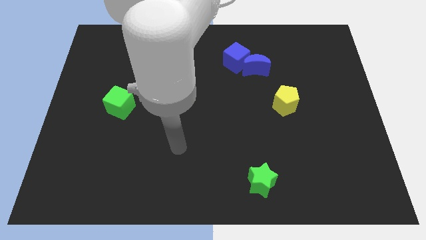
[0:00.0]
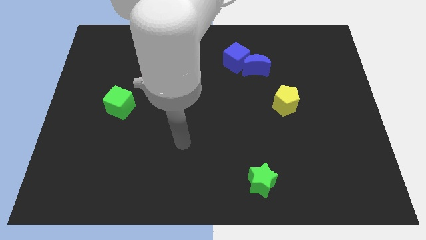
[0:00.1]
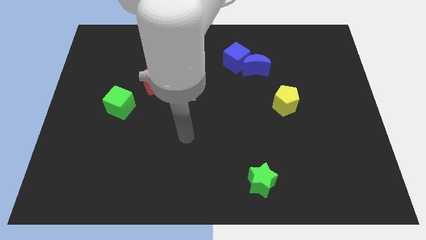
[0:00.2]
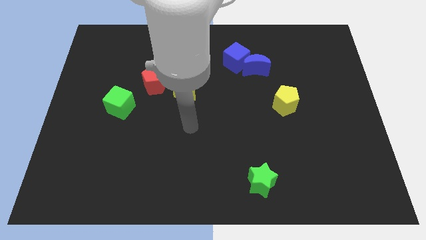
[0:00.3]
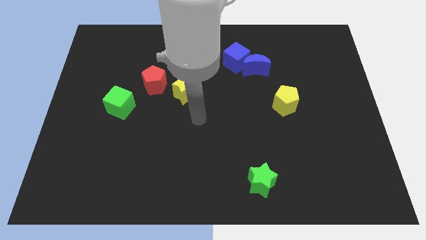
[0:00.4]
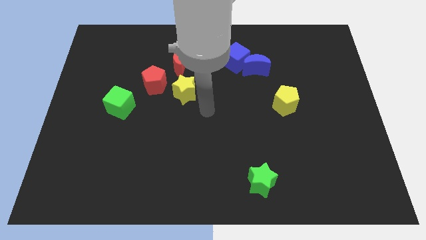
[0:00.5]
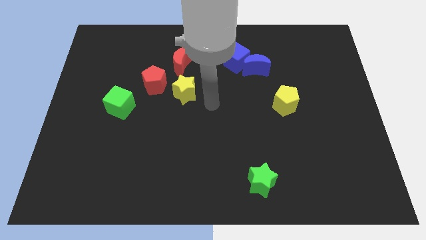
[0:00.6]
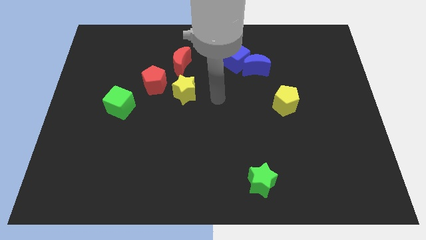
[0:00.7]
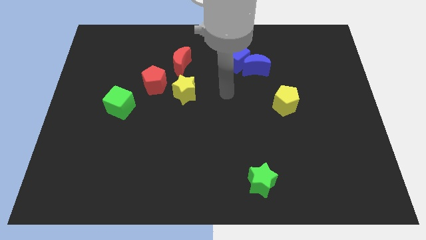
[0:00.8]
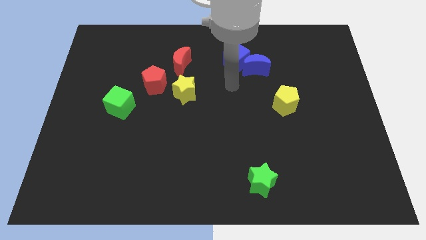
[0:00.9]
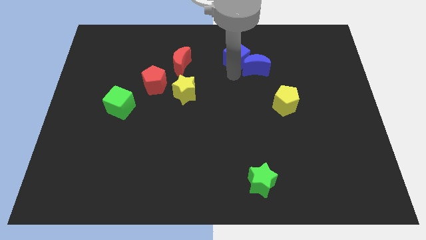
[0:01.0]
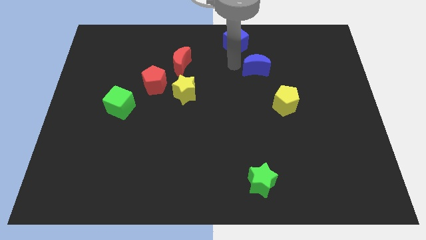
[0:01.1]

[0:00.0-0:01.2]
pull the blue moon apart from the blue cube

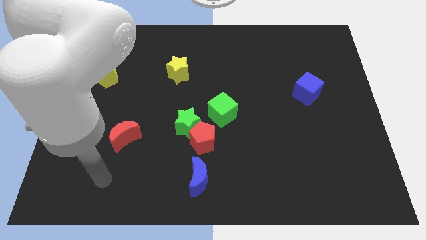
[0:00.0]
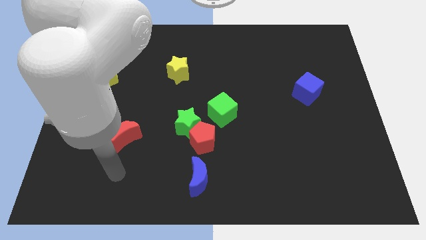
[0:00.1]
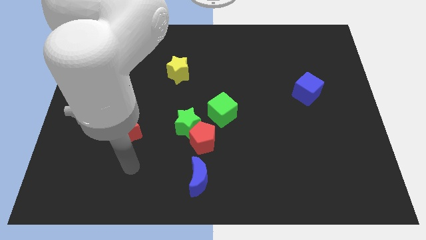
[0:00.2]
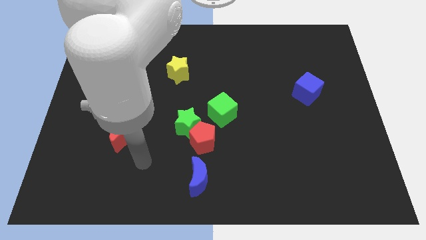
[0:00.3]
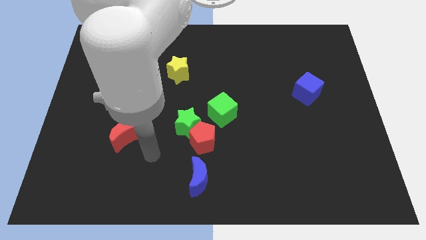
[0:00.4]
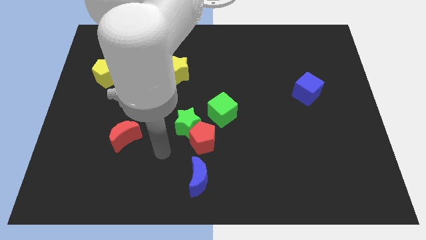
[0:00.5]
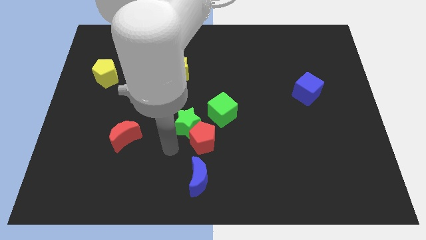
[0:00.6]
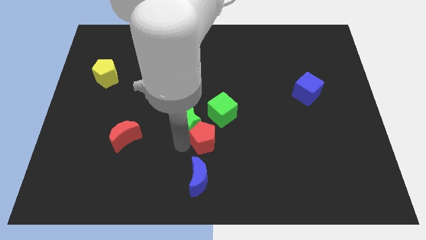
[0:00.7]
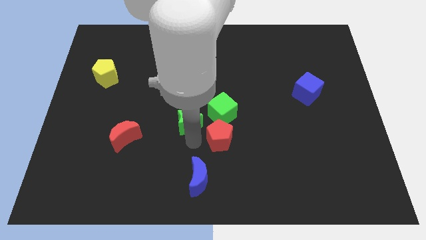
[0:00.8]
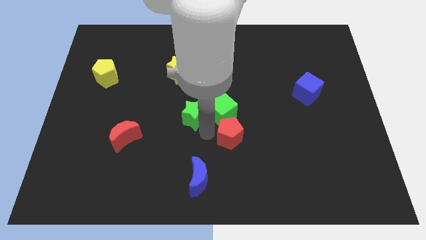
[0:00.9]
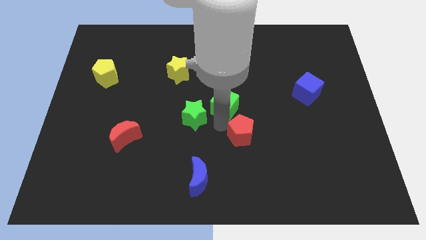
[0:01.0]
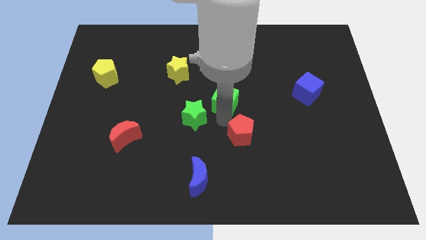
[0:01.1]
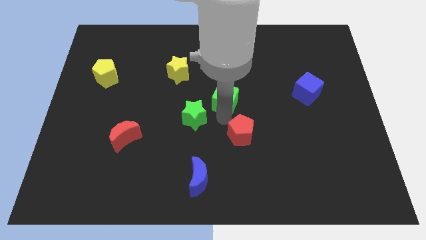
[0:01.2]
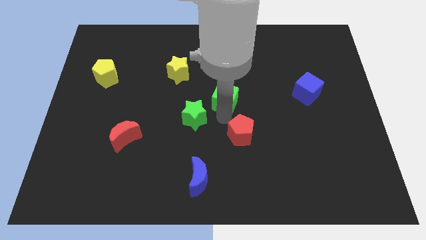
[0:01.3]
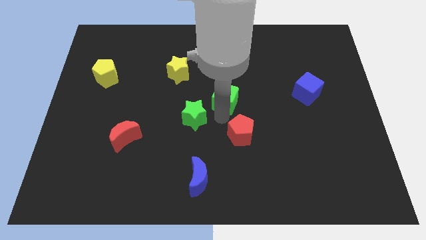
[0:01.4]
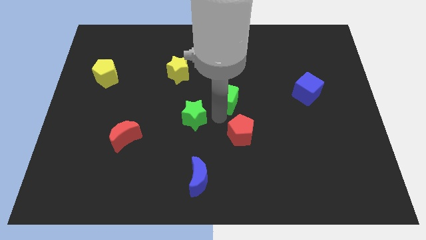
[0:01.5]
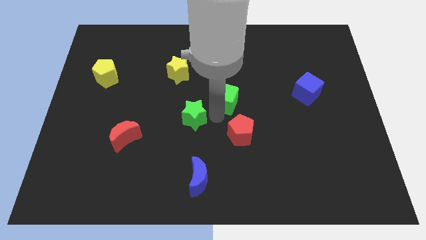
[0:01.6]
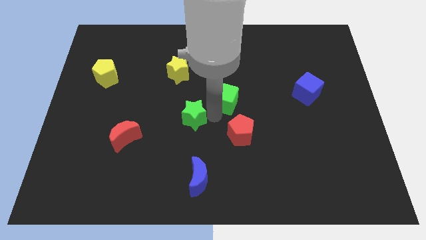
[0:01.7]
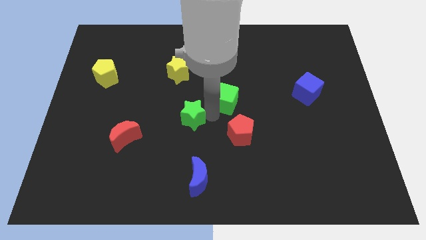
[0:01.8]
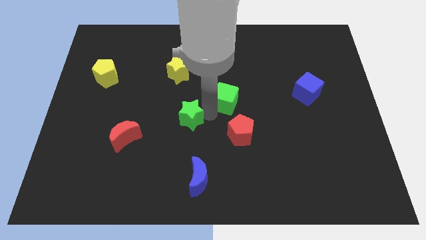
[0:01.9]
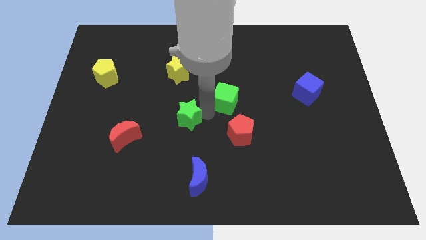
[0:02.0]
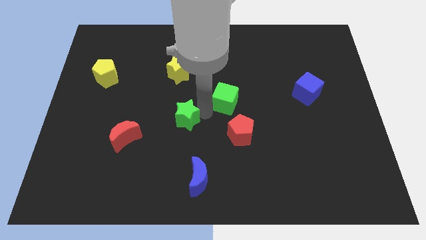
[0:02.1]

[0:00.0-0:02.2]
pull the green star apart from the red pentagon and green cube

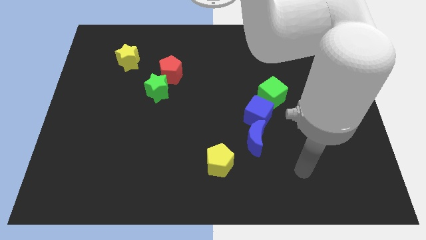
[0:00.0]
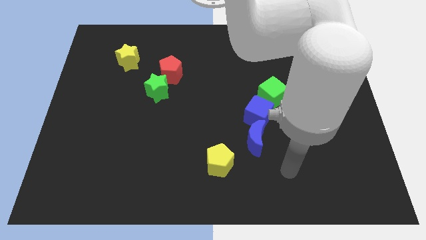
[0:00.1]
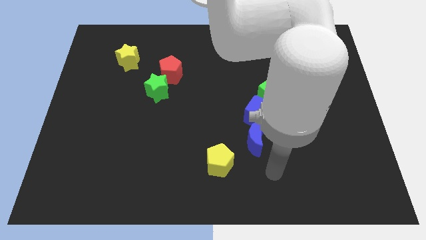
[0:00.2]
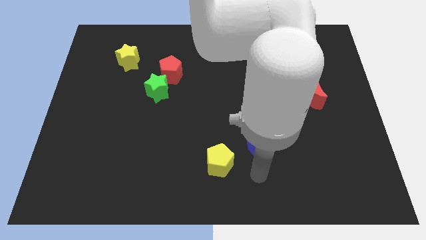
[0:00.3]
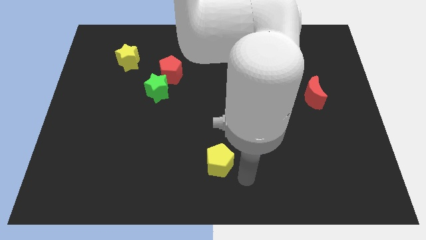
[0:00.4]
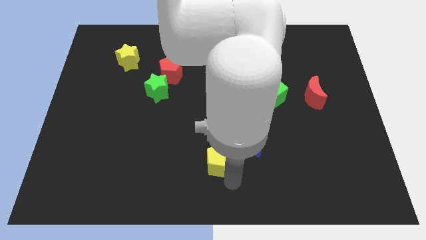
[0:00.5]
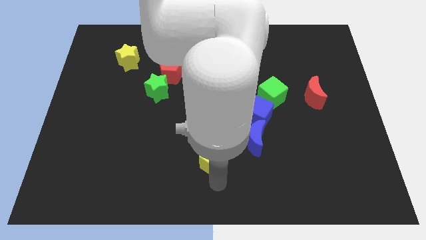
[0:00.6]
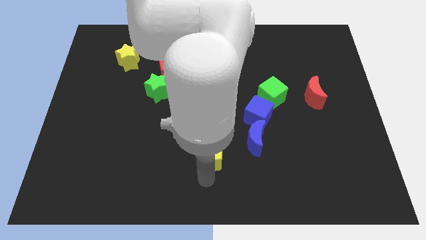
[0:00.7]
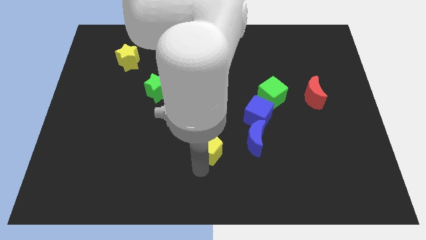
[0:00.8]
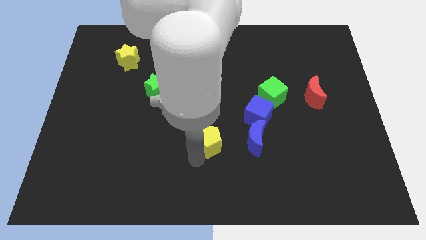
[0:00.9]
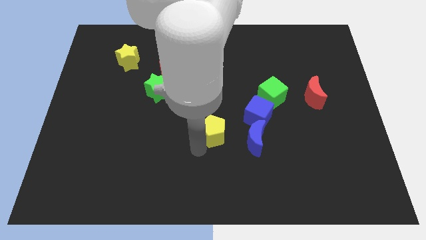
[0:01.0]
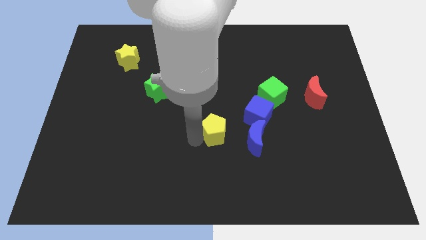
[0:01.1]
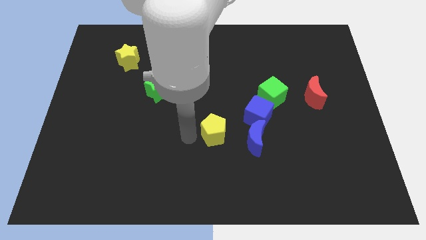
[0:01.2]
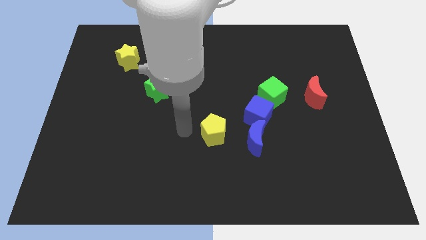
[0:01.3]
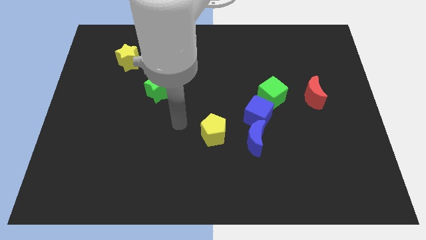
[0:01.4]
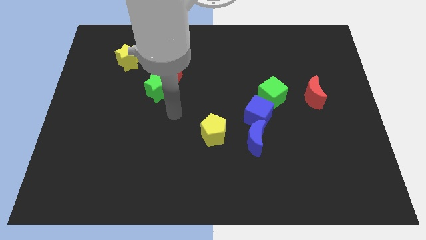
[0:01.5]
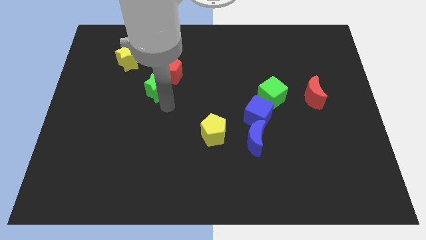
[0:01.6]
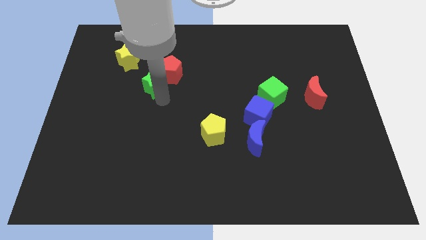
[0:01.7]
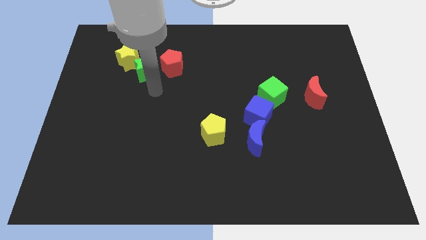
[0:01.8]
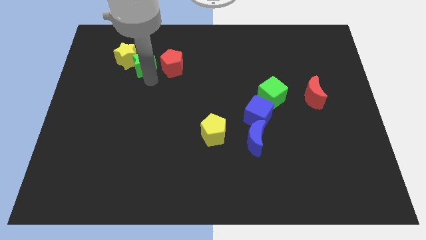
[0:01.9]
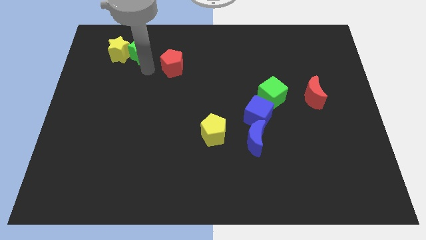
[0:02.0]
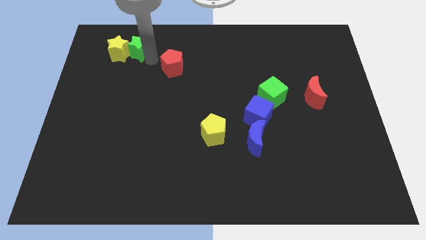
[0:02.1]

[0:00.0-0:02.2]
pull the red pentagon apart from the green star

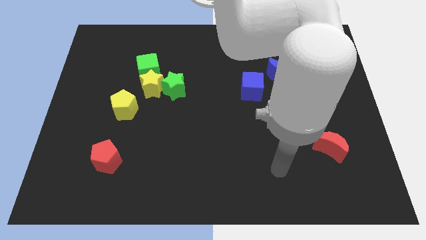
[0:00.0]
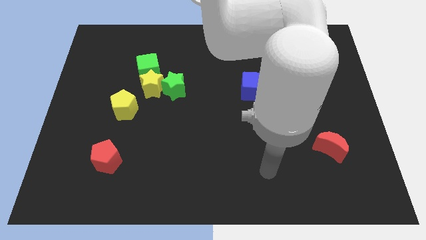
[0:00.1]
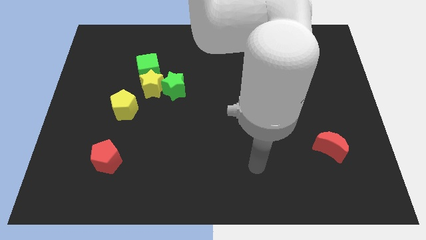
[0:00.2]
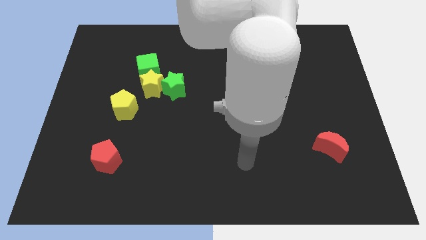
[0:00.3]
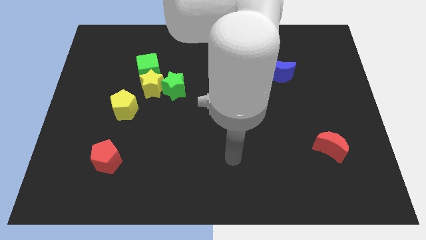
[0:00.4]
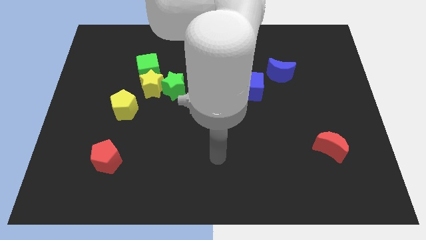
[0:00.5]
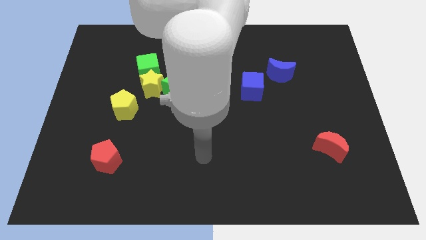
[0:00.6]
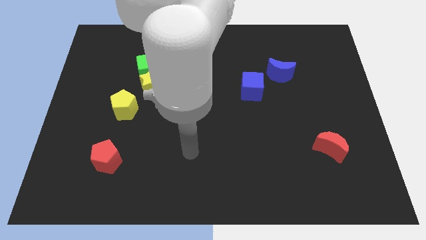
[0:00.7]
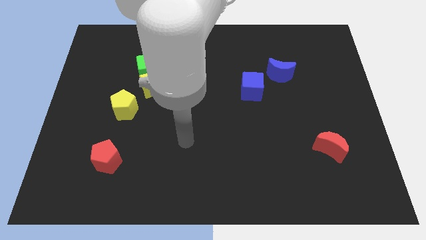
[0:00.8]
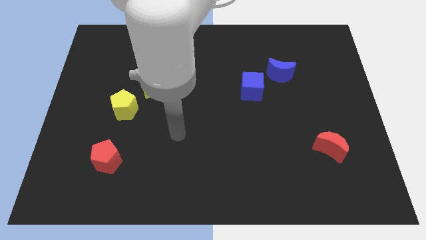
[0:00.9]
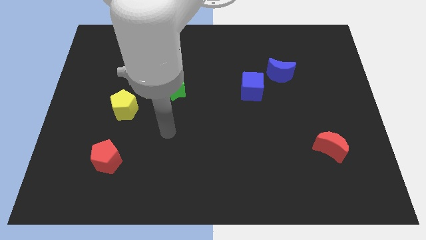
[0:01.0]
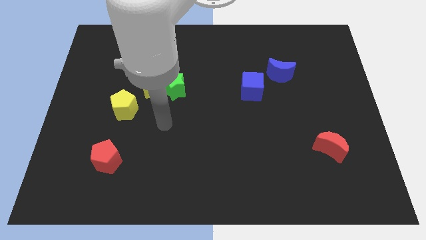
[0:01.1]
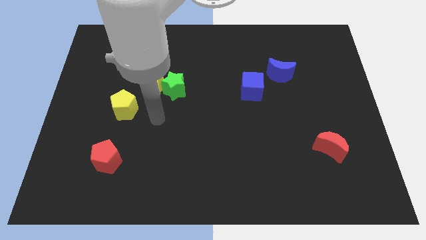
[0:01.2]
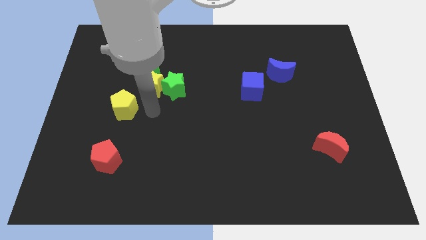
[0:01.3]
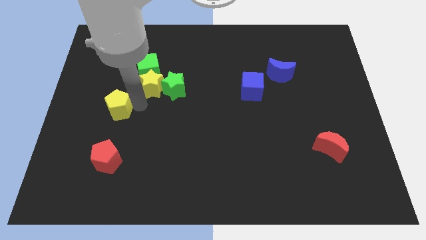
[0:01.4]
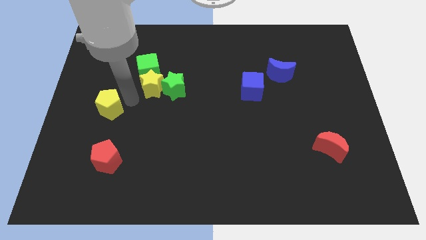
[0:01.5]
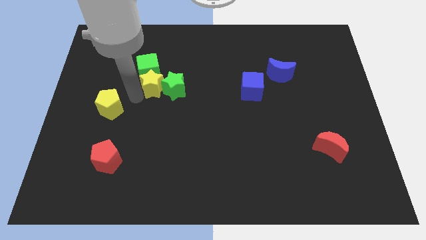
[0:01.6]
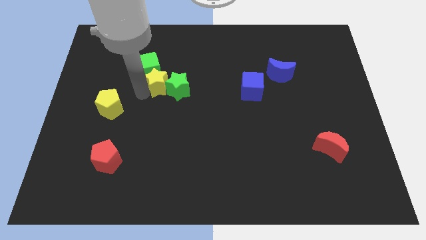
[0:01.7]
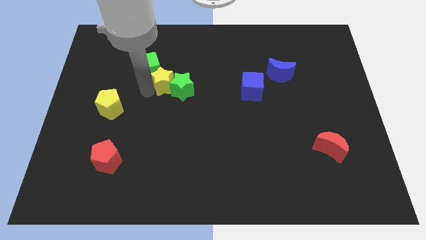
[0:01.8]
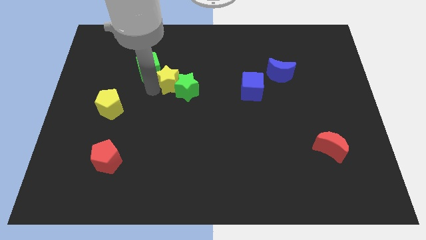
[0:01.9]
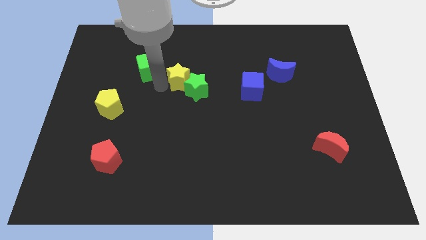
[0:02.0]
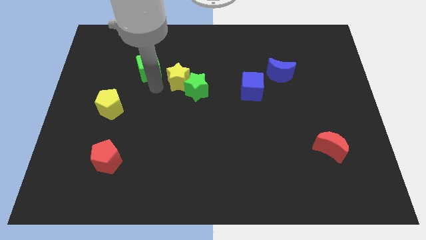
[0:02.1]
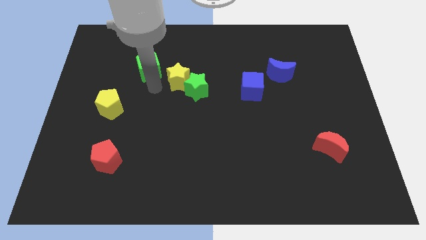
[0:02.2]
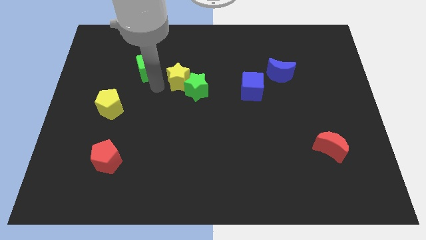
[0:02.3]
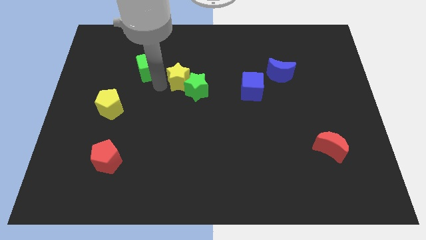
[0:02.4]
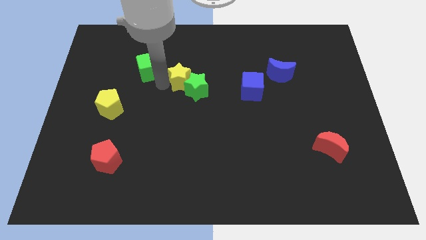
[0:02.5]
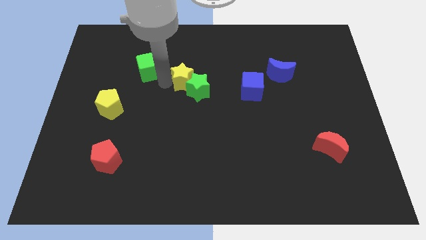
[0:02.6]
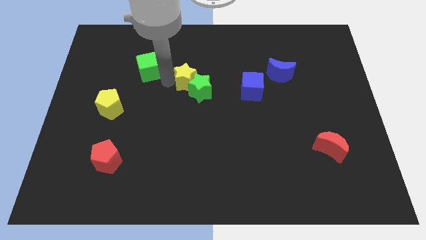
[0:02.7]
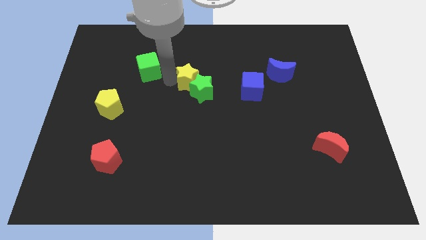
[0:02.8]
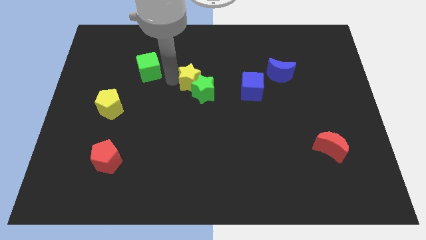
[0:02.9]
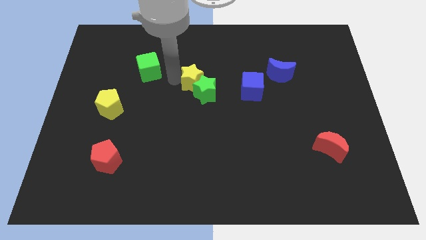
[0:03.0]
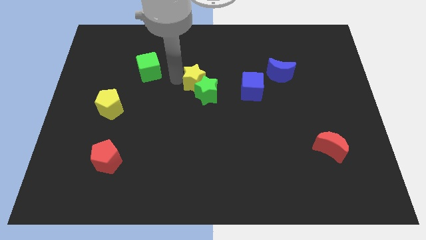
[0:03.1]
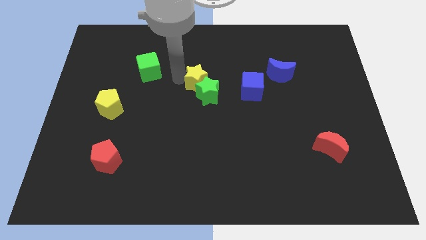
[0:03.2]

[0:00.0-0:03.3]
separate the yellow star from the clump

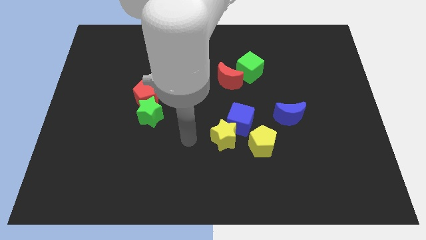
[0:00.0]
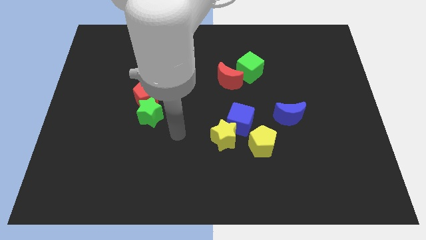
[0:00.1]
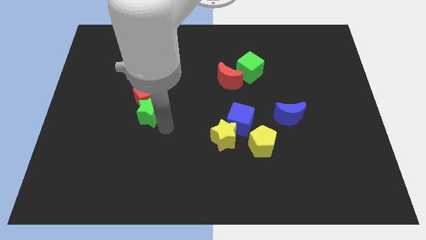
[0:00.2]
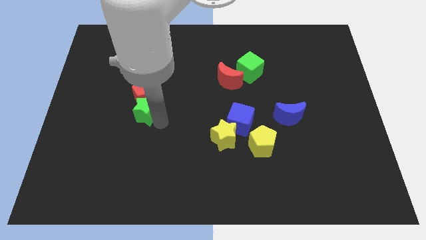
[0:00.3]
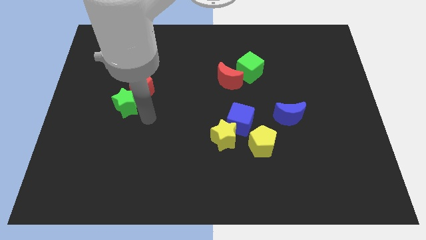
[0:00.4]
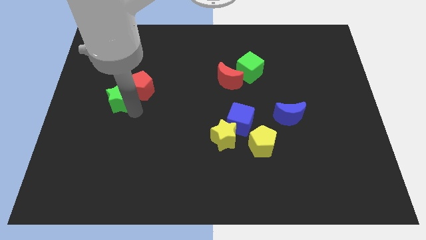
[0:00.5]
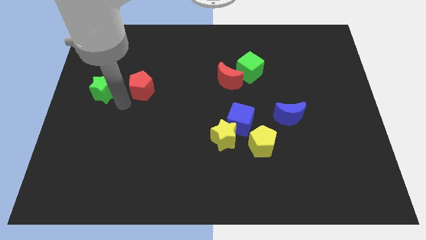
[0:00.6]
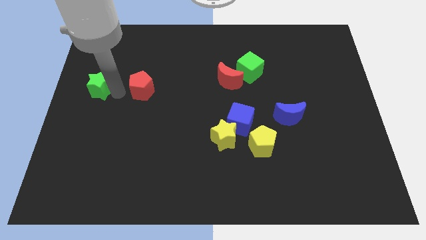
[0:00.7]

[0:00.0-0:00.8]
move the red pentagon away from the green star
